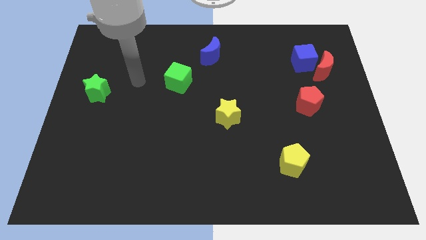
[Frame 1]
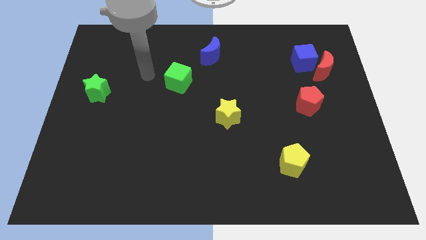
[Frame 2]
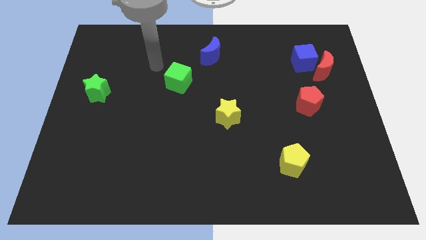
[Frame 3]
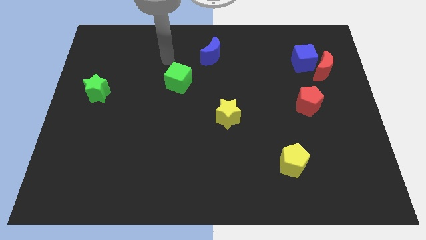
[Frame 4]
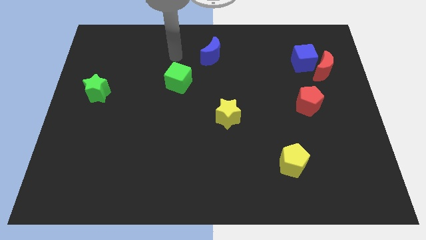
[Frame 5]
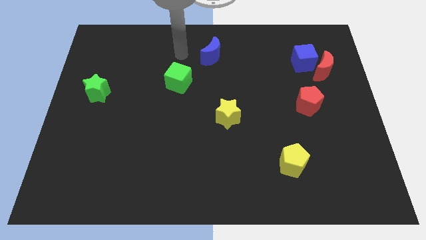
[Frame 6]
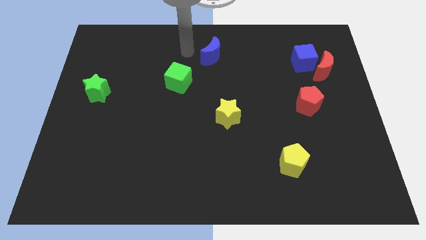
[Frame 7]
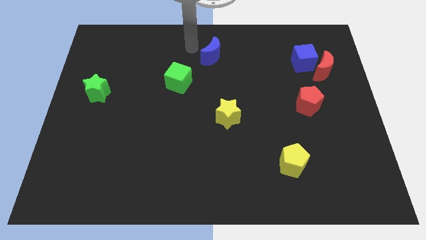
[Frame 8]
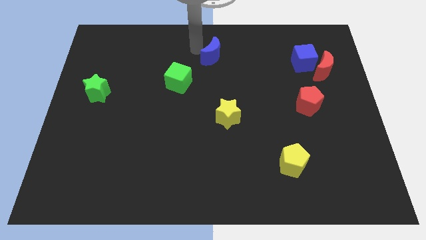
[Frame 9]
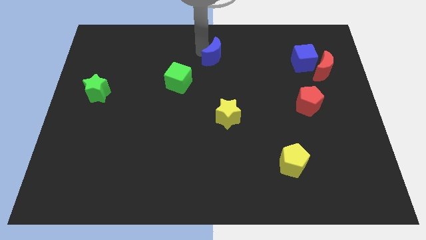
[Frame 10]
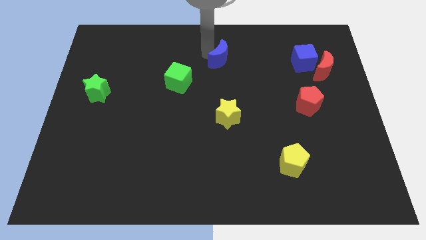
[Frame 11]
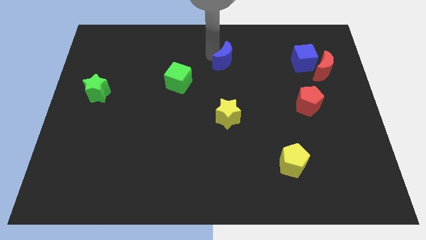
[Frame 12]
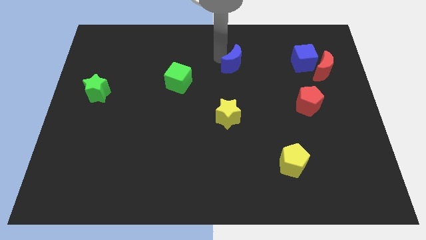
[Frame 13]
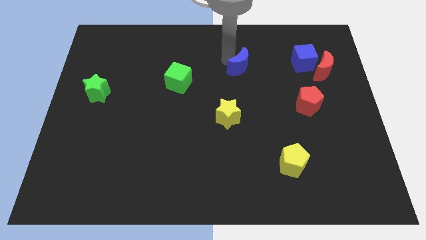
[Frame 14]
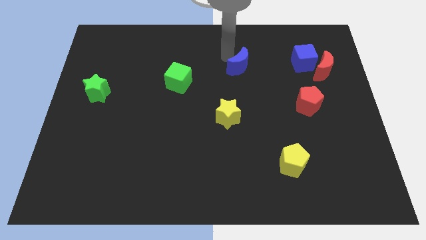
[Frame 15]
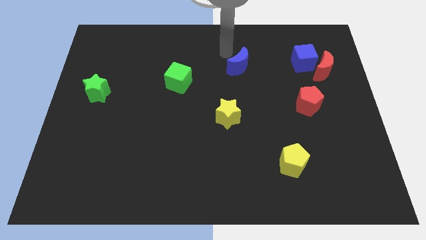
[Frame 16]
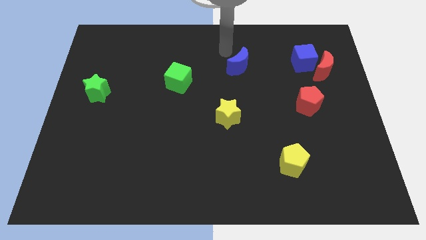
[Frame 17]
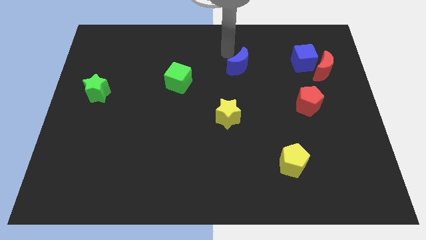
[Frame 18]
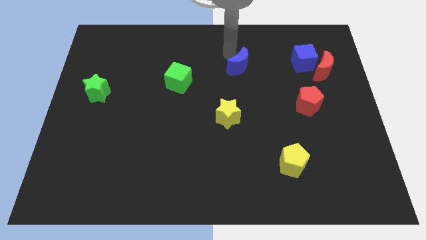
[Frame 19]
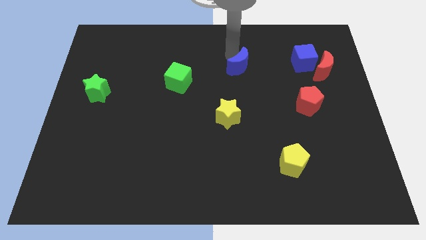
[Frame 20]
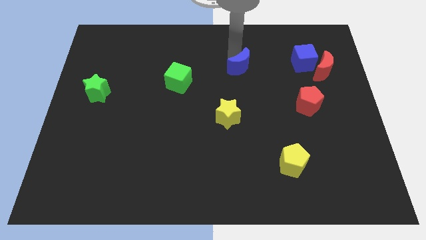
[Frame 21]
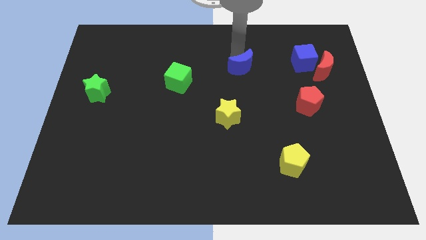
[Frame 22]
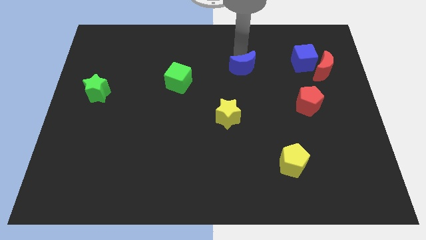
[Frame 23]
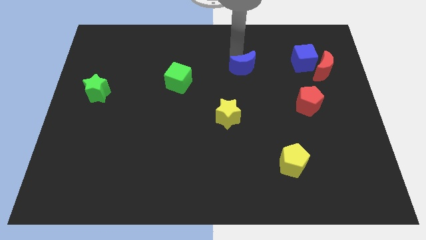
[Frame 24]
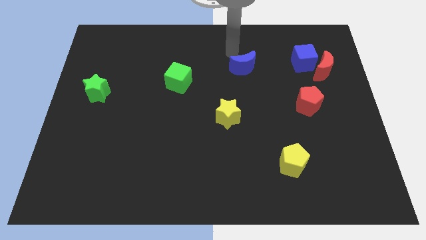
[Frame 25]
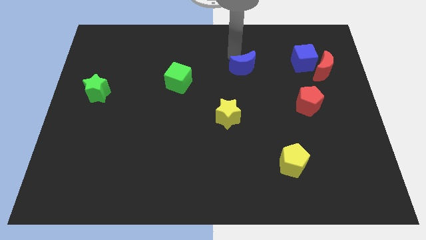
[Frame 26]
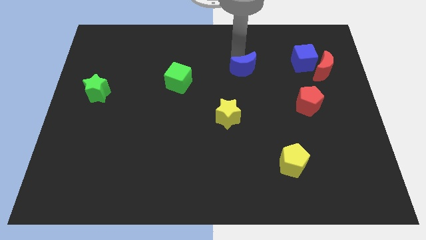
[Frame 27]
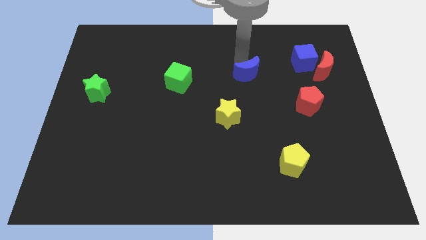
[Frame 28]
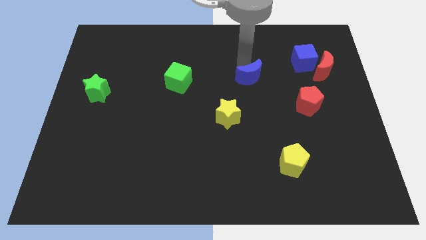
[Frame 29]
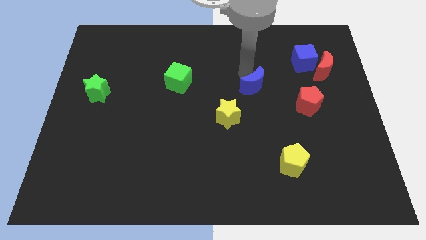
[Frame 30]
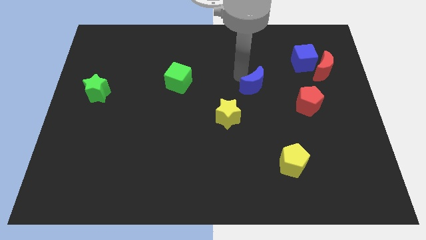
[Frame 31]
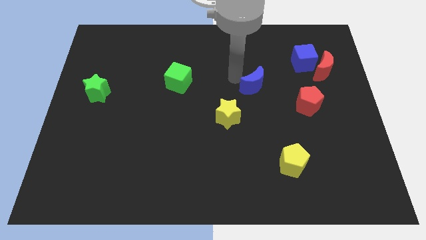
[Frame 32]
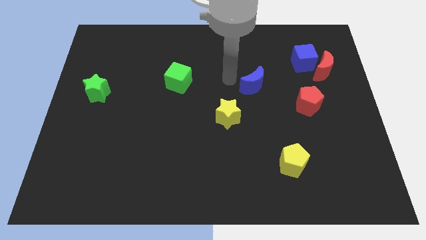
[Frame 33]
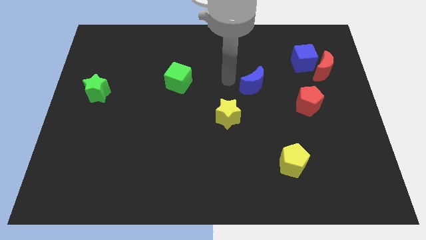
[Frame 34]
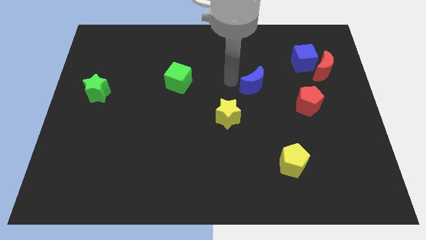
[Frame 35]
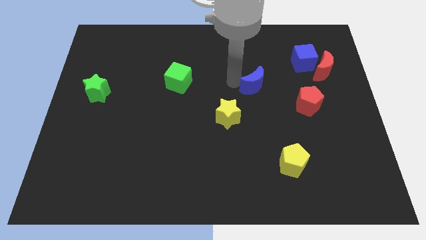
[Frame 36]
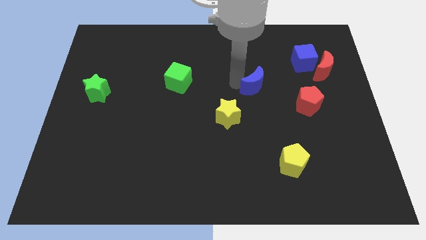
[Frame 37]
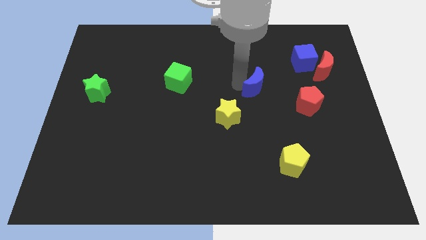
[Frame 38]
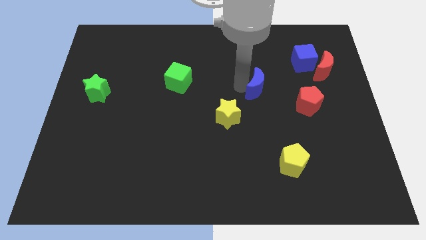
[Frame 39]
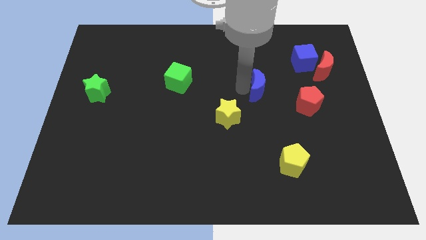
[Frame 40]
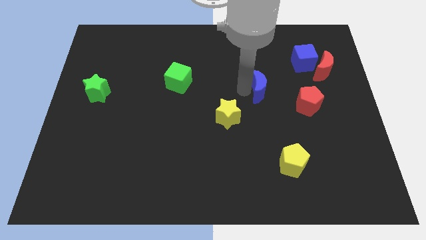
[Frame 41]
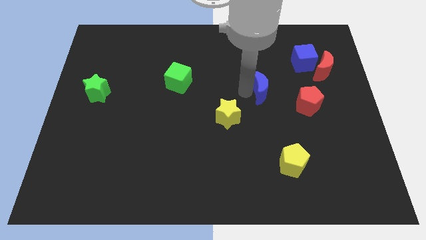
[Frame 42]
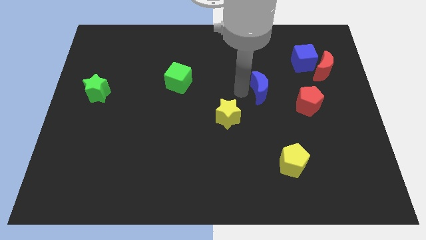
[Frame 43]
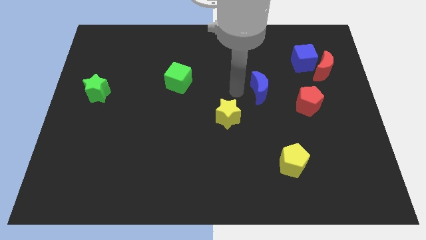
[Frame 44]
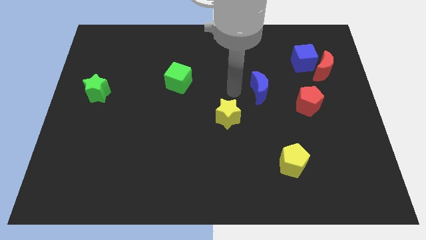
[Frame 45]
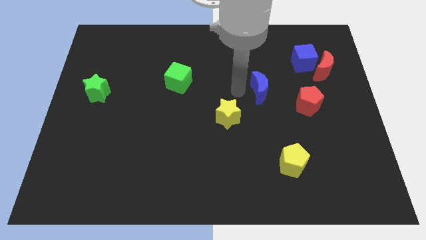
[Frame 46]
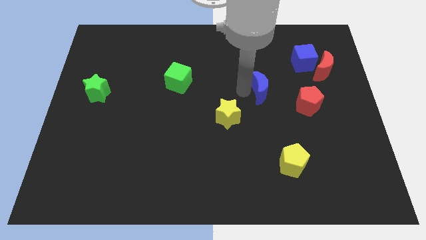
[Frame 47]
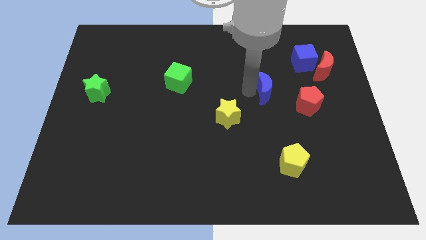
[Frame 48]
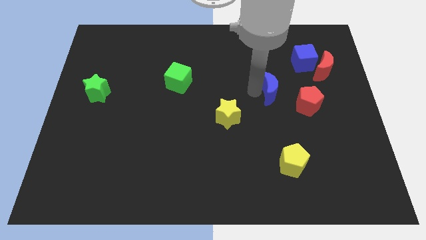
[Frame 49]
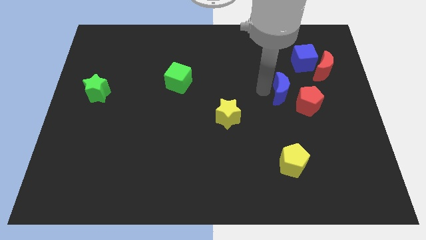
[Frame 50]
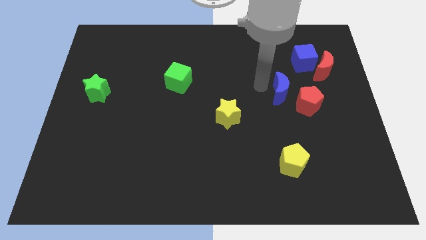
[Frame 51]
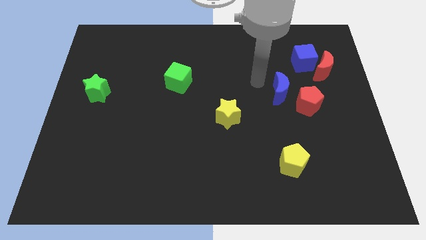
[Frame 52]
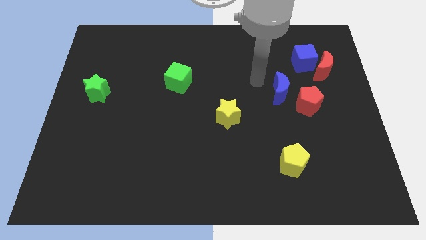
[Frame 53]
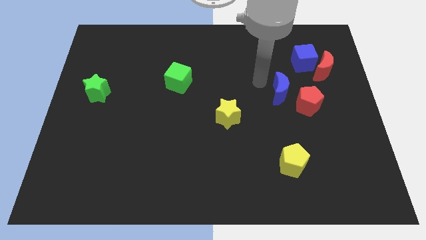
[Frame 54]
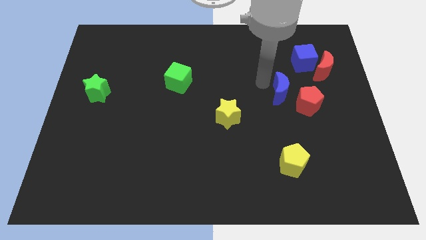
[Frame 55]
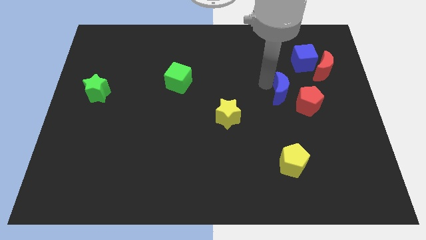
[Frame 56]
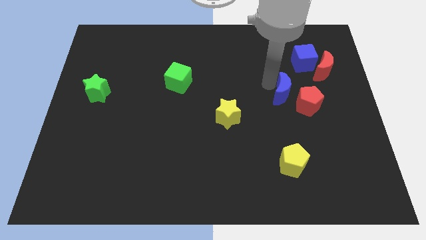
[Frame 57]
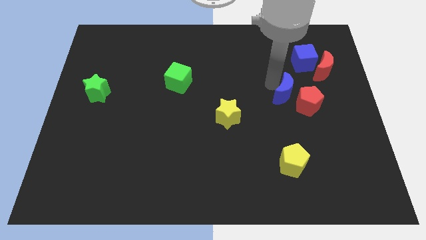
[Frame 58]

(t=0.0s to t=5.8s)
put the blue moon close to the red pentagon

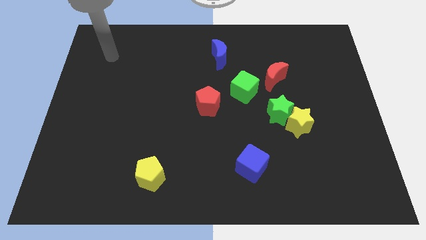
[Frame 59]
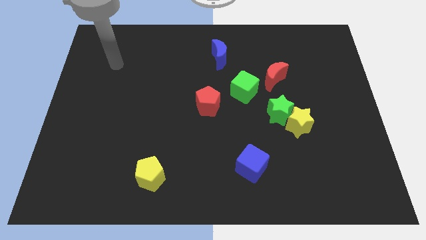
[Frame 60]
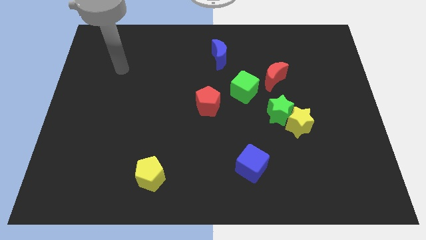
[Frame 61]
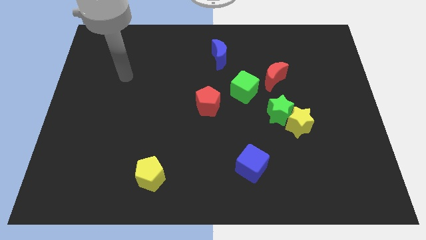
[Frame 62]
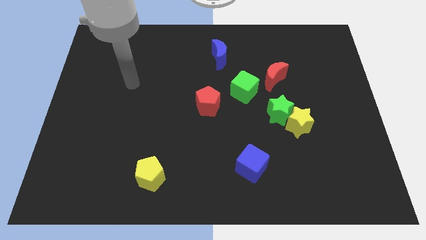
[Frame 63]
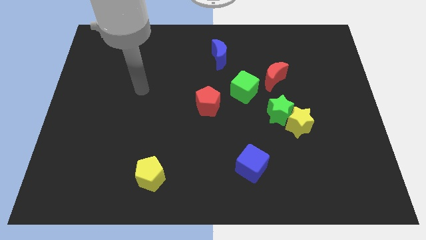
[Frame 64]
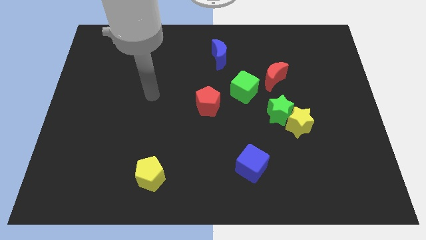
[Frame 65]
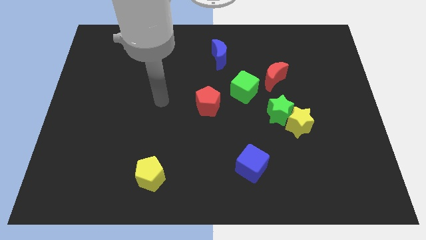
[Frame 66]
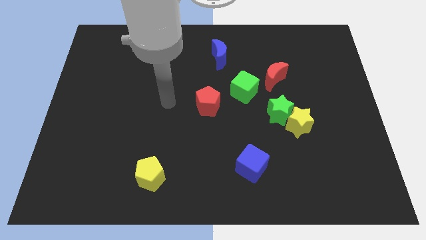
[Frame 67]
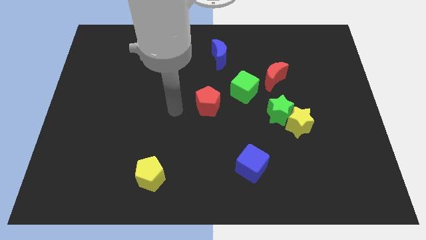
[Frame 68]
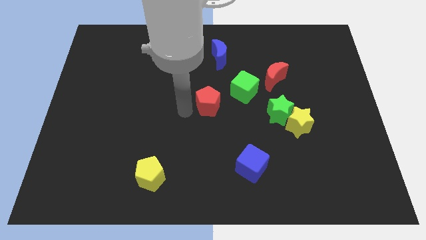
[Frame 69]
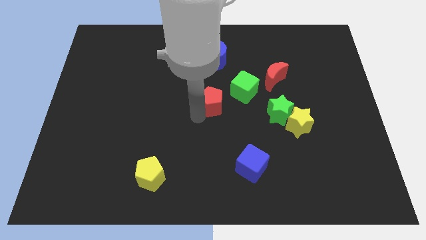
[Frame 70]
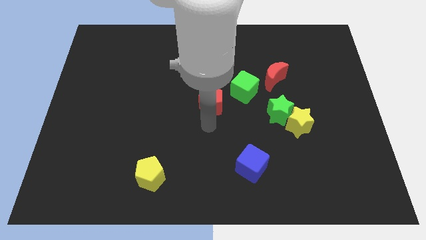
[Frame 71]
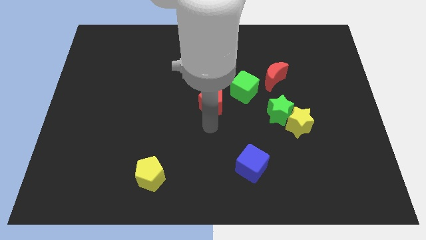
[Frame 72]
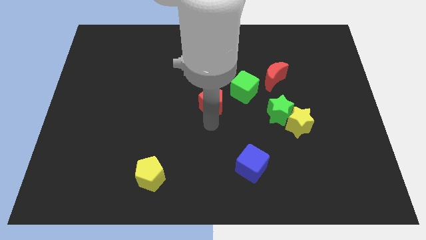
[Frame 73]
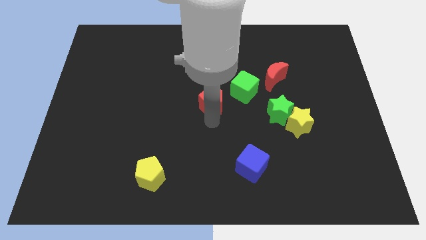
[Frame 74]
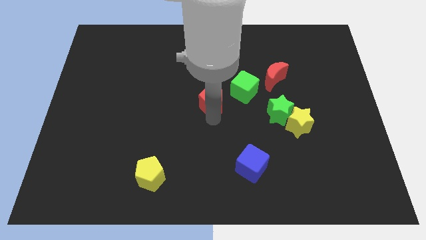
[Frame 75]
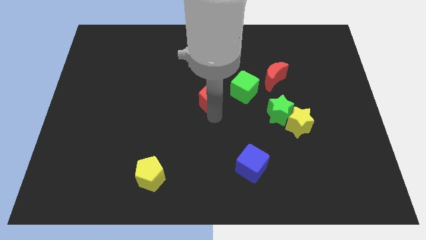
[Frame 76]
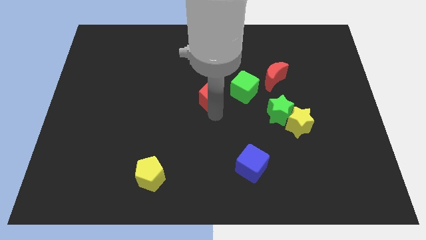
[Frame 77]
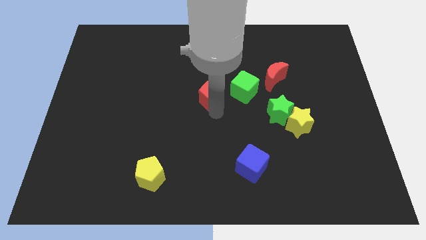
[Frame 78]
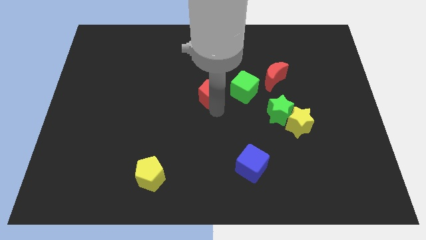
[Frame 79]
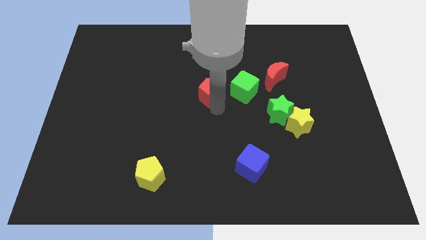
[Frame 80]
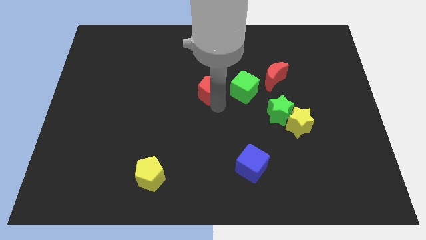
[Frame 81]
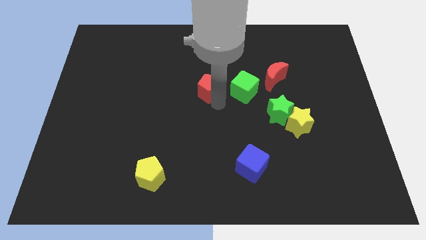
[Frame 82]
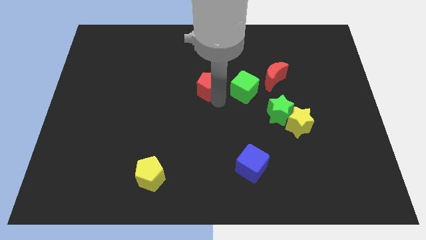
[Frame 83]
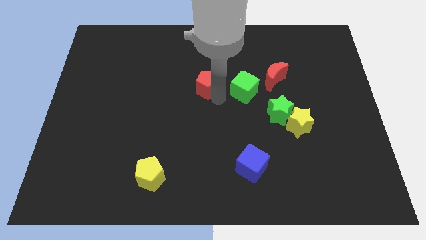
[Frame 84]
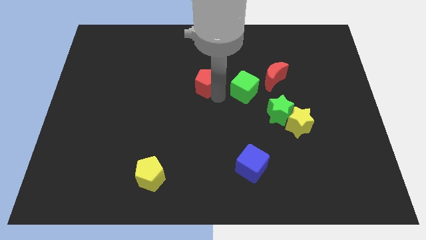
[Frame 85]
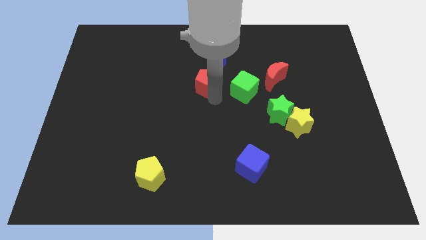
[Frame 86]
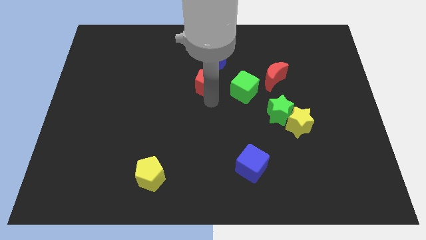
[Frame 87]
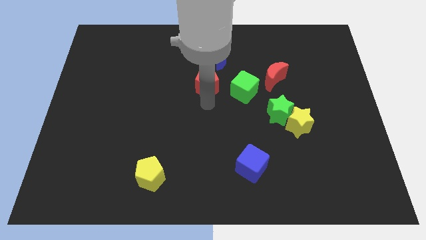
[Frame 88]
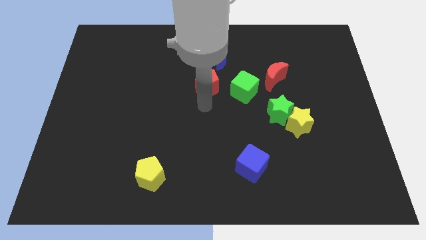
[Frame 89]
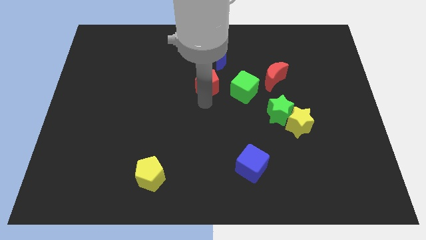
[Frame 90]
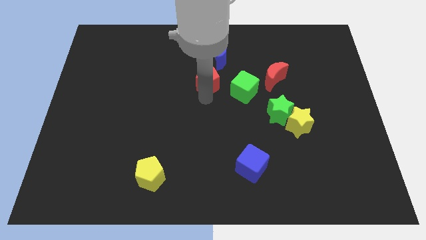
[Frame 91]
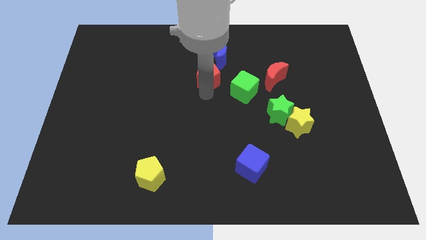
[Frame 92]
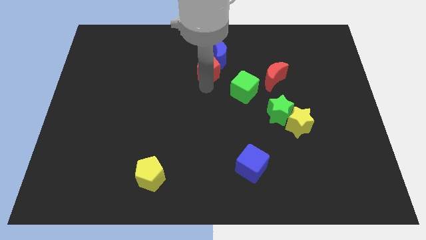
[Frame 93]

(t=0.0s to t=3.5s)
push the red pentagon next to the blue moon
